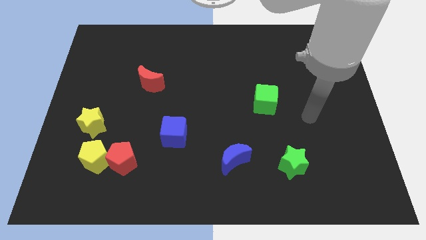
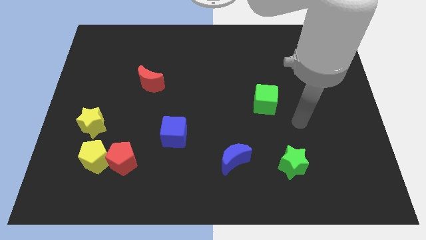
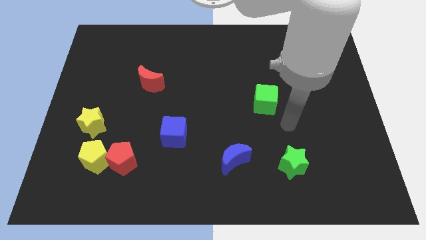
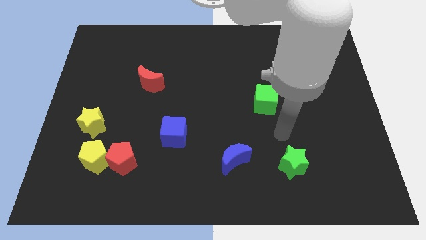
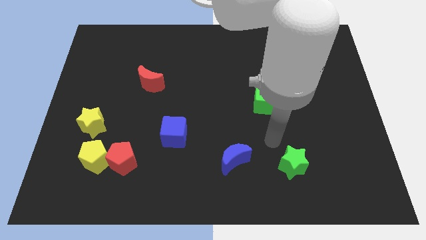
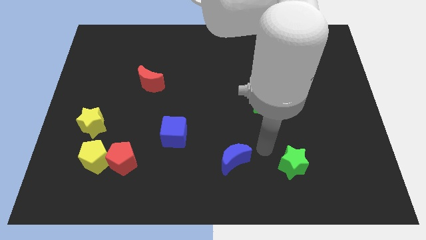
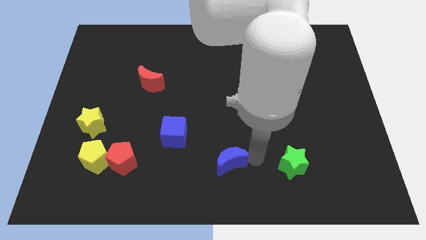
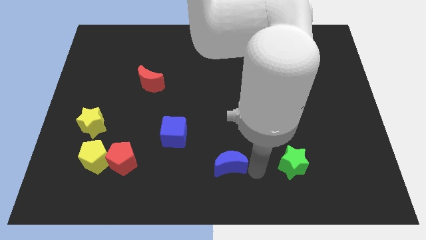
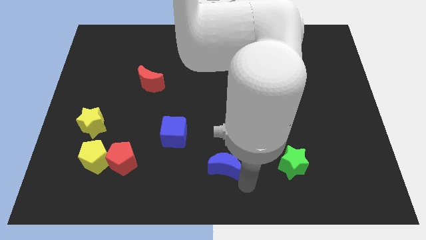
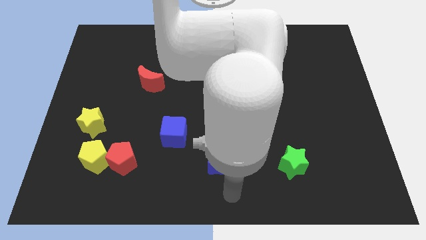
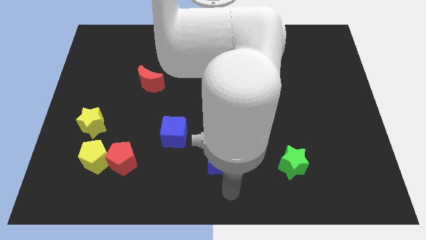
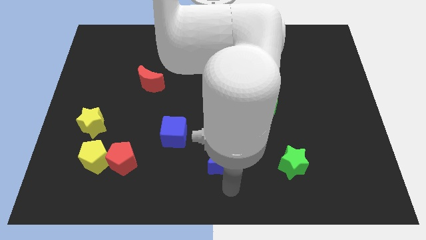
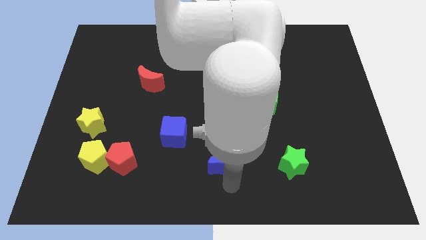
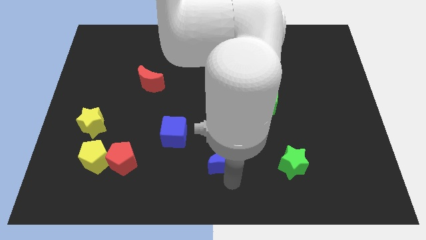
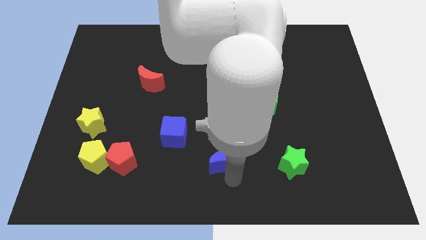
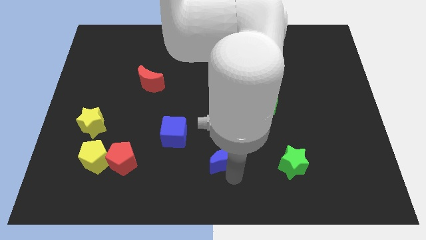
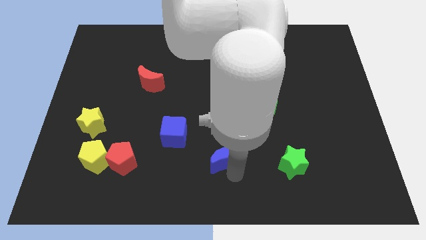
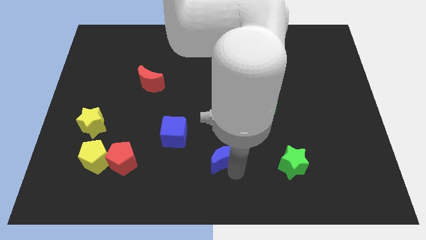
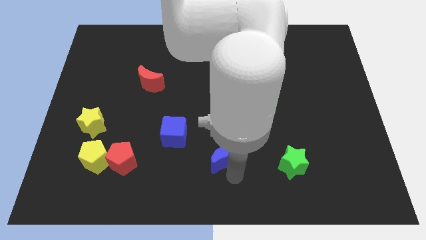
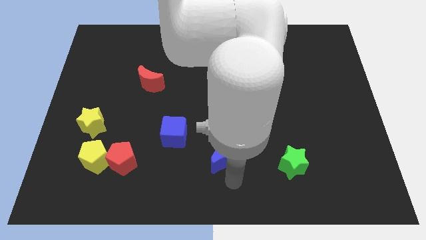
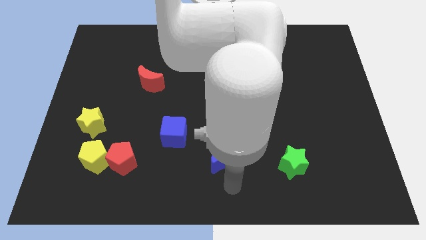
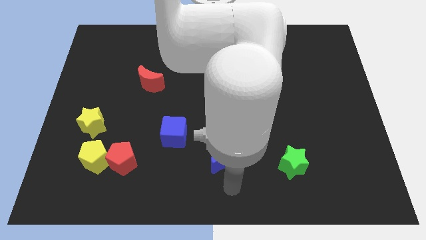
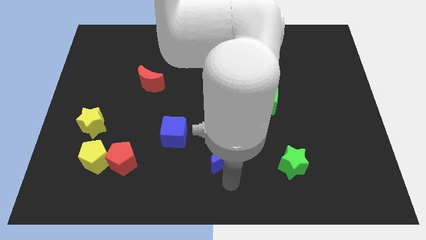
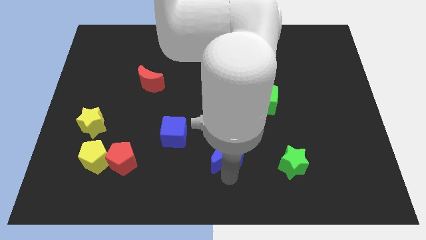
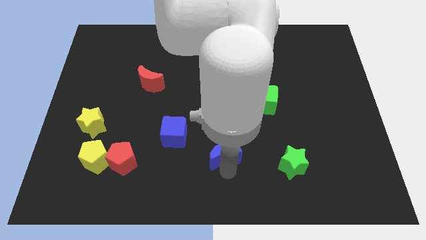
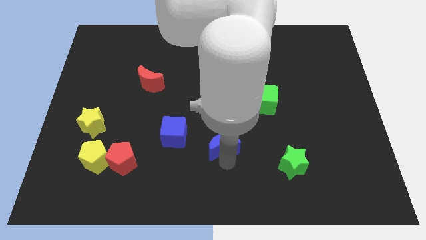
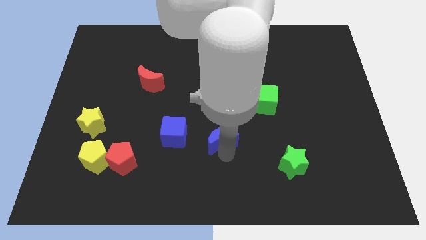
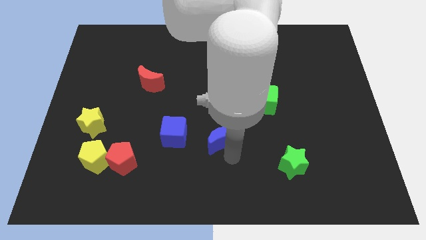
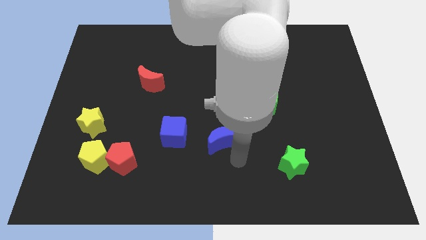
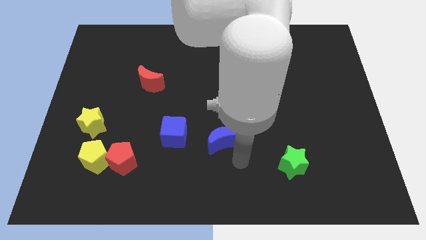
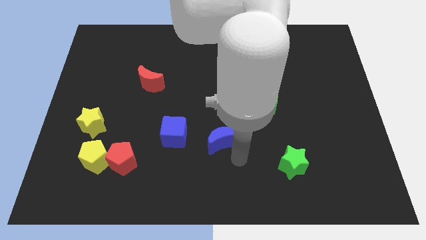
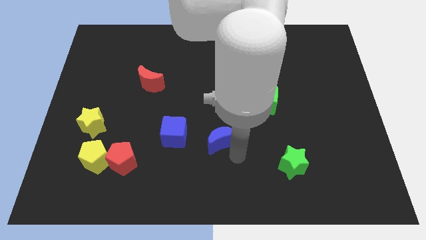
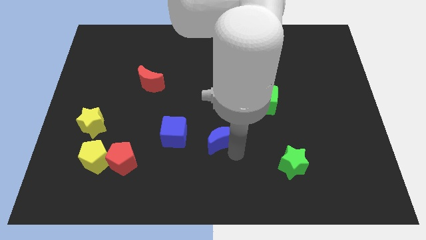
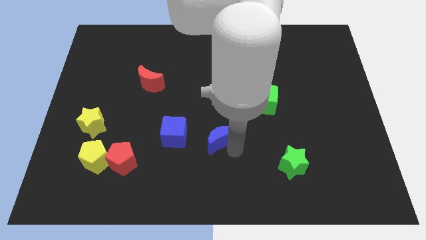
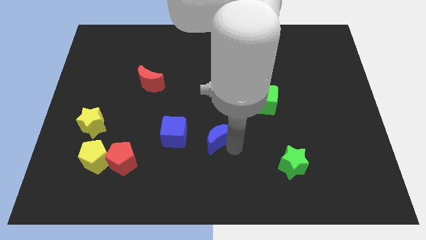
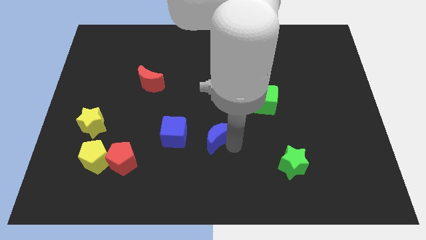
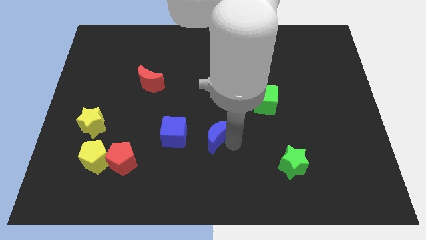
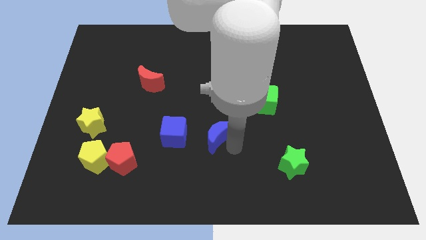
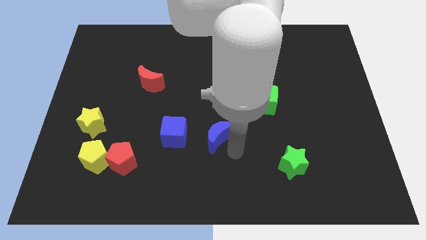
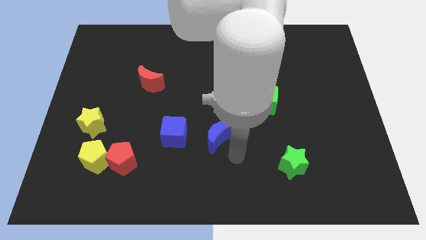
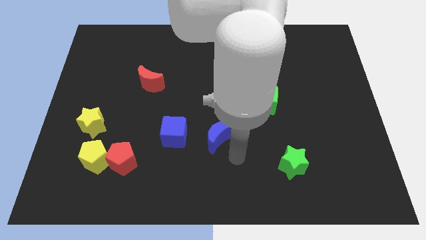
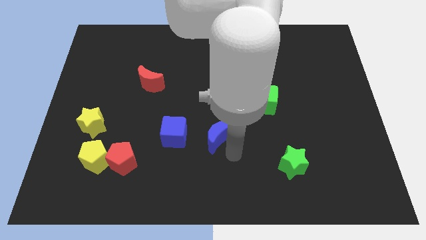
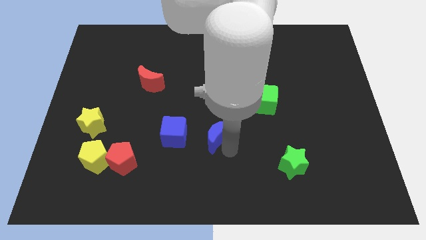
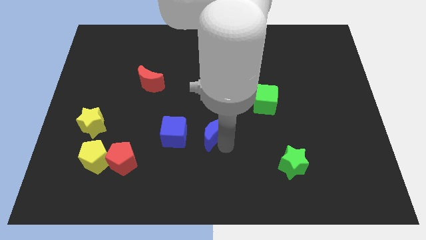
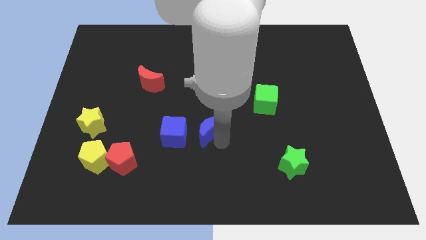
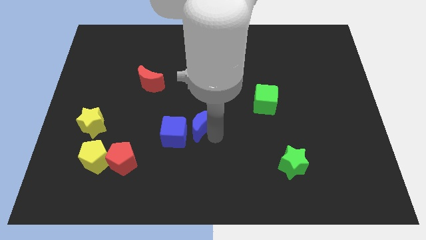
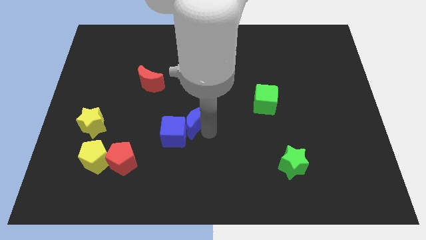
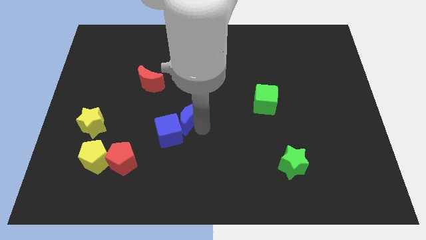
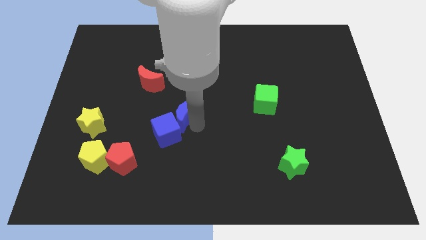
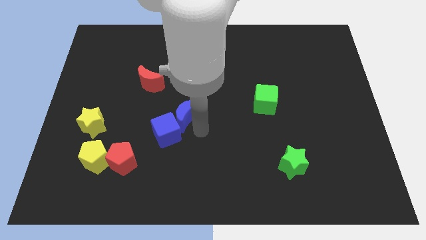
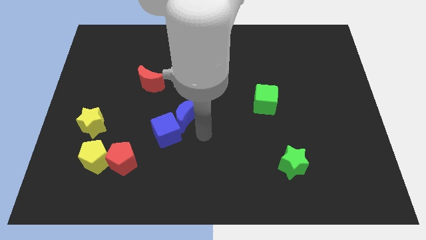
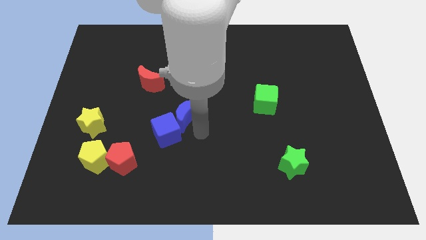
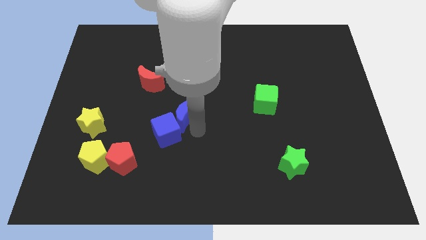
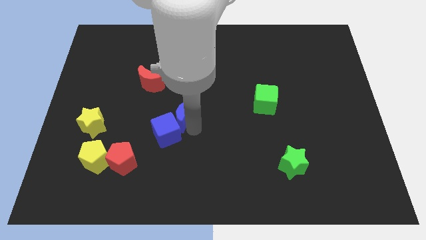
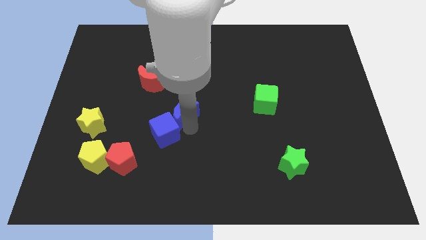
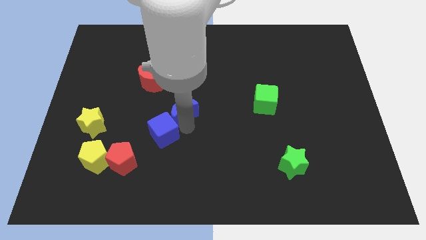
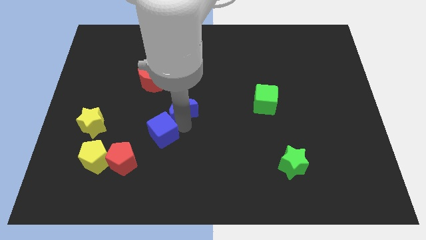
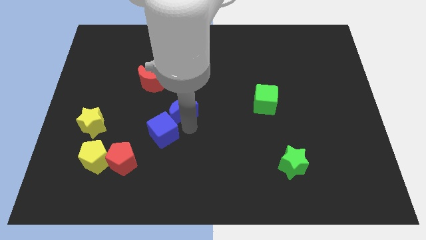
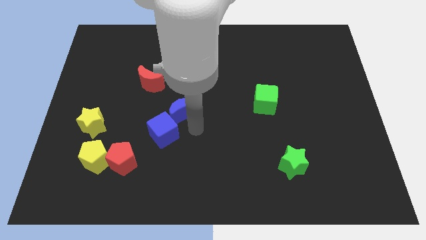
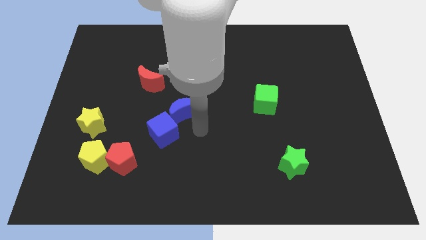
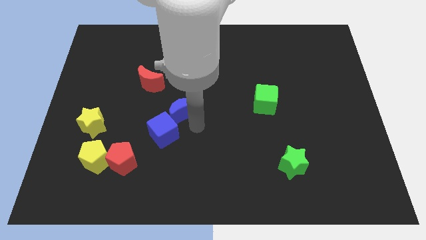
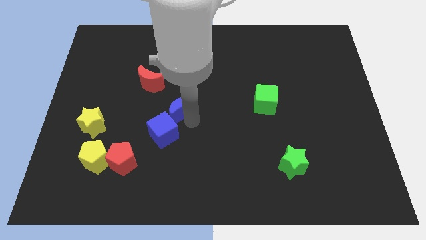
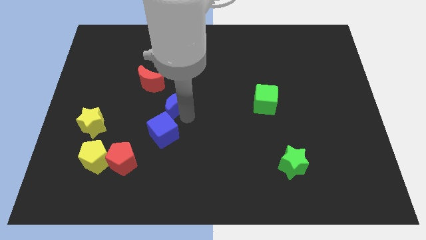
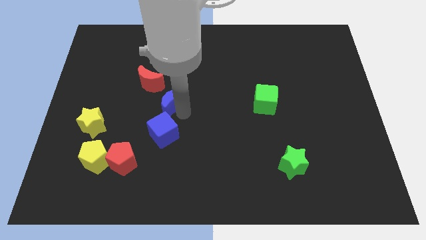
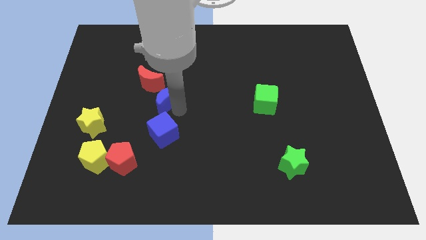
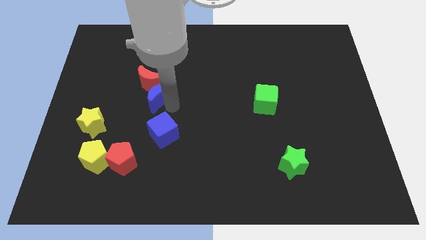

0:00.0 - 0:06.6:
move the blue moon next to the red moon
